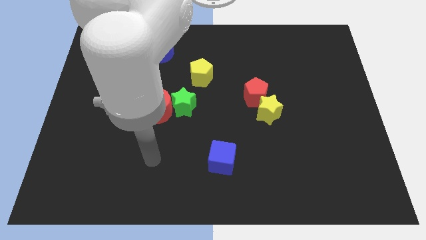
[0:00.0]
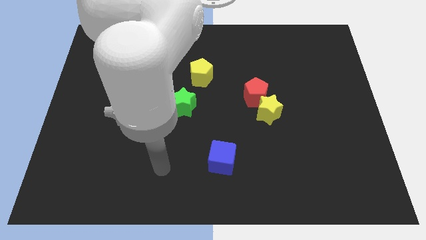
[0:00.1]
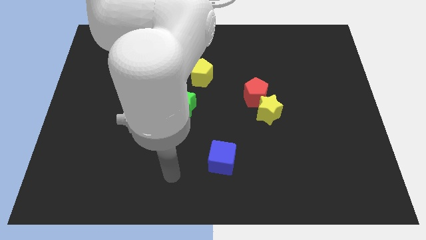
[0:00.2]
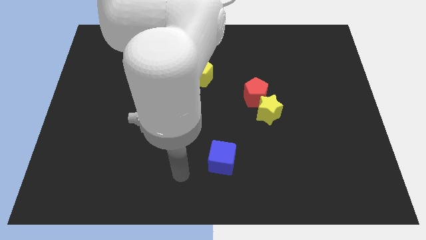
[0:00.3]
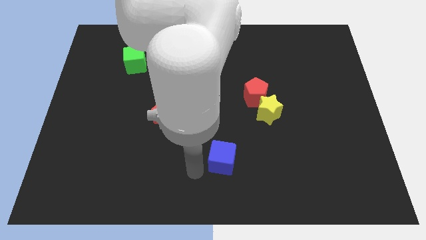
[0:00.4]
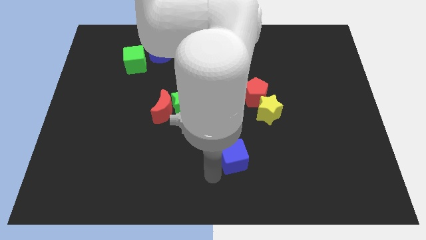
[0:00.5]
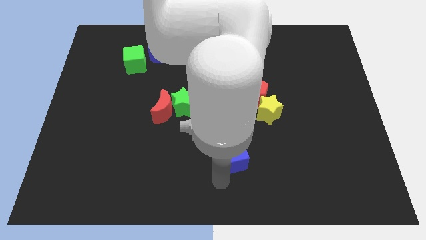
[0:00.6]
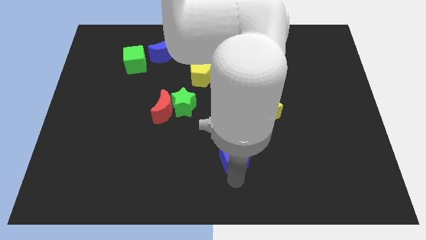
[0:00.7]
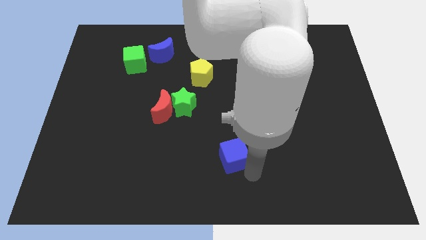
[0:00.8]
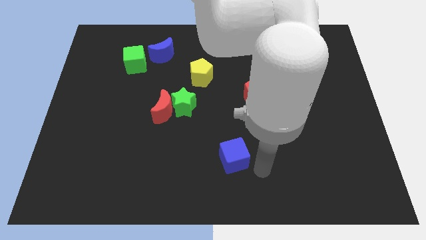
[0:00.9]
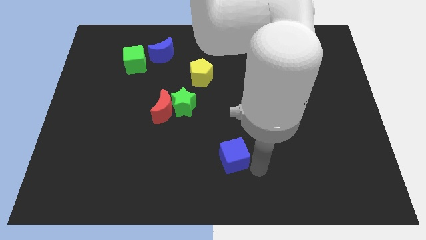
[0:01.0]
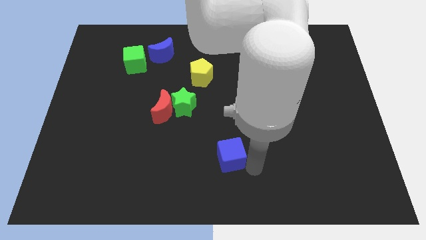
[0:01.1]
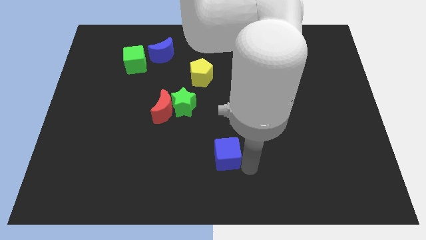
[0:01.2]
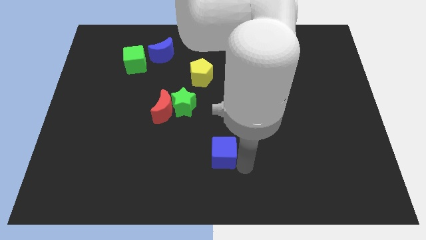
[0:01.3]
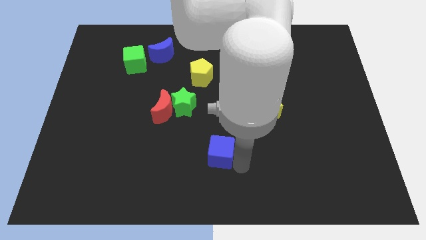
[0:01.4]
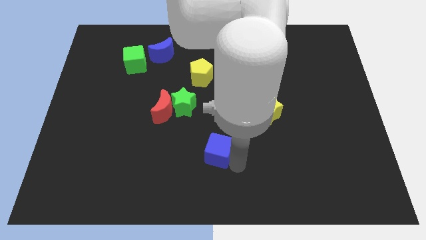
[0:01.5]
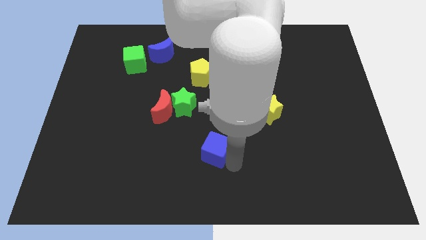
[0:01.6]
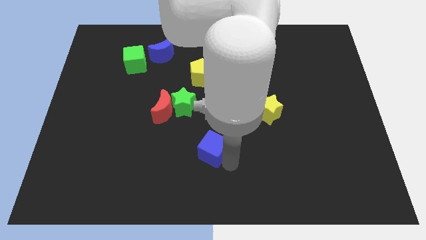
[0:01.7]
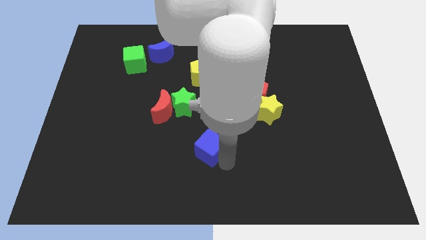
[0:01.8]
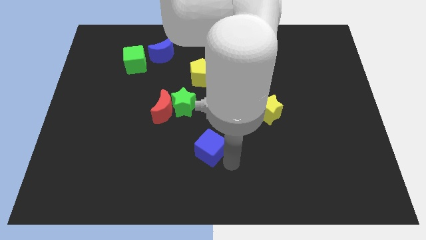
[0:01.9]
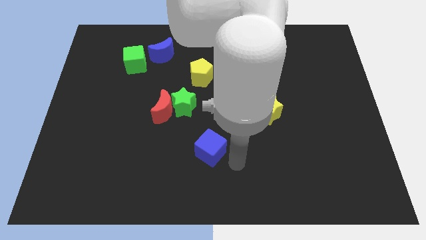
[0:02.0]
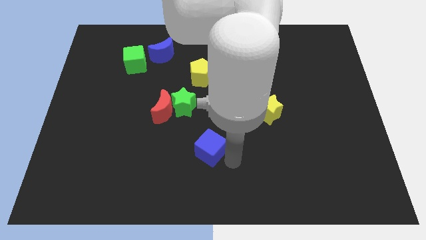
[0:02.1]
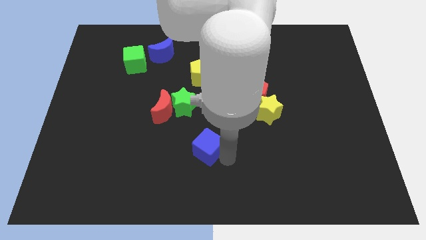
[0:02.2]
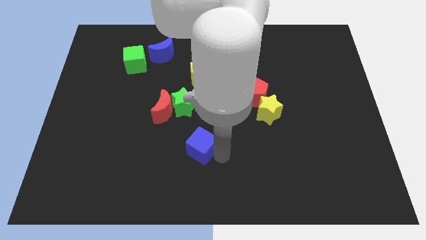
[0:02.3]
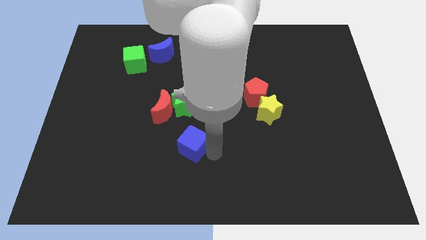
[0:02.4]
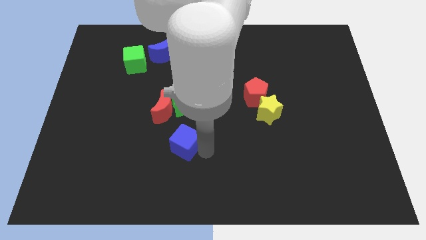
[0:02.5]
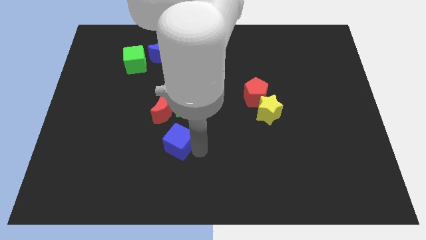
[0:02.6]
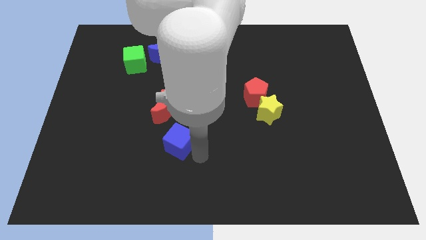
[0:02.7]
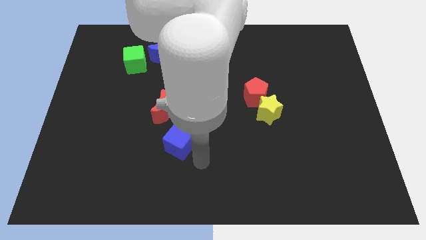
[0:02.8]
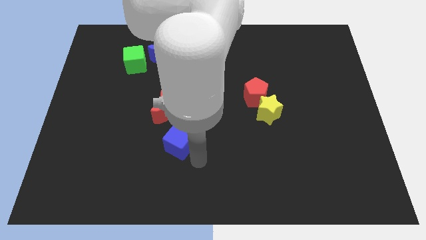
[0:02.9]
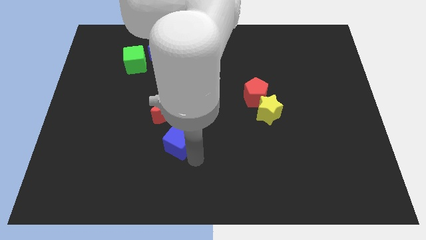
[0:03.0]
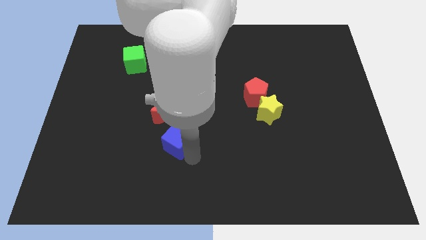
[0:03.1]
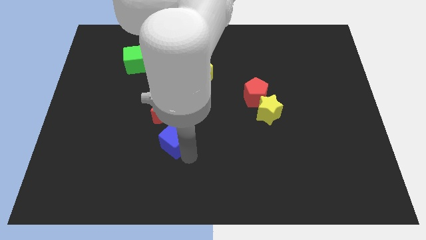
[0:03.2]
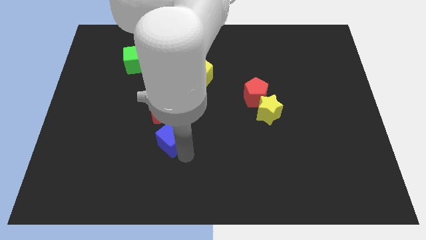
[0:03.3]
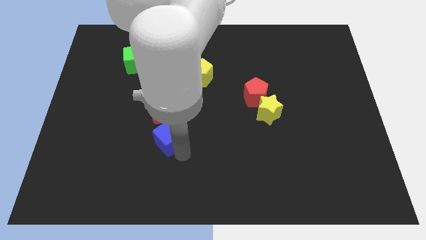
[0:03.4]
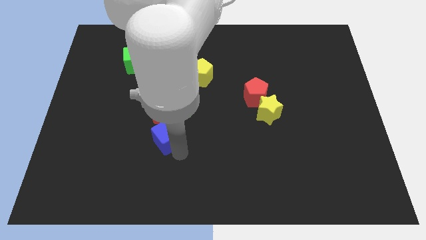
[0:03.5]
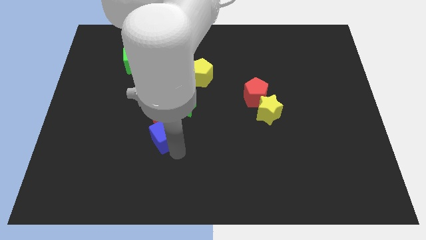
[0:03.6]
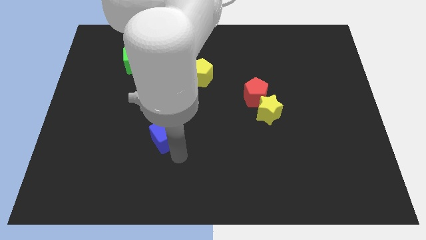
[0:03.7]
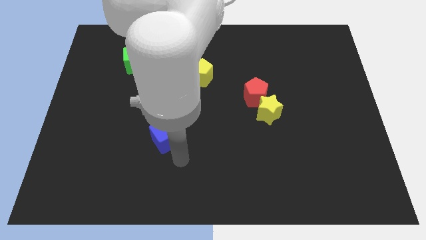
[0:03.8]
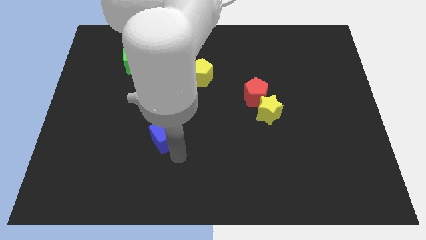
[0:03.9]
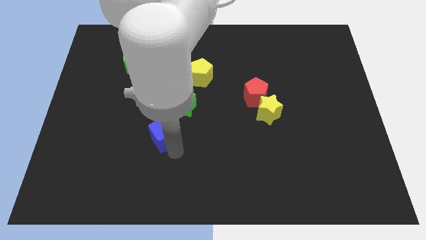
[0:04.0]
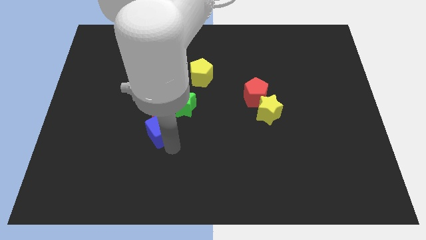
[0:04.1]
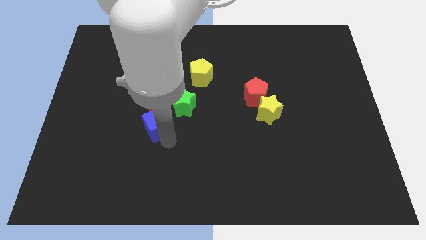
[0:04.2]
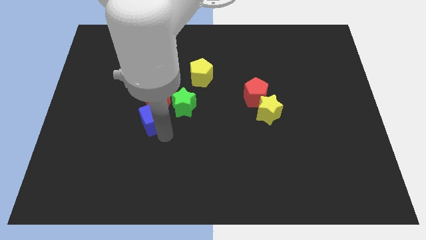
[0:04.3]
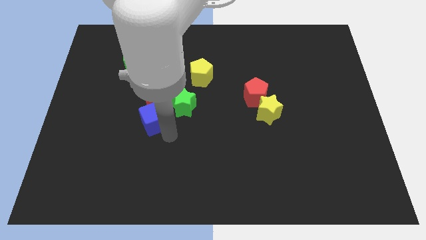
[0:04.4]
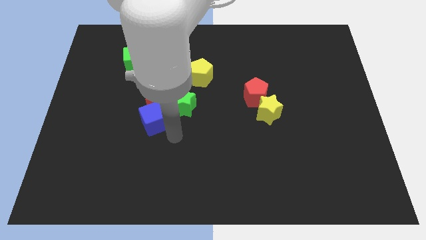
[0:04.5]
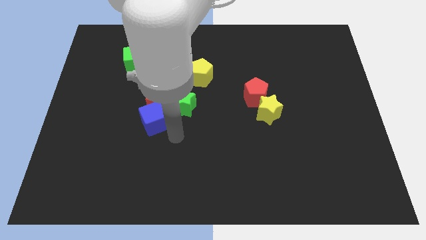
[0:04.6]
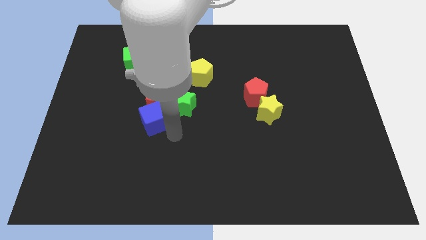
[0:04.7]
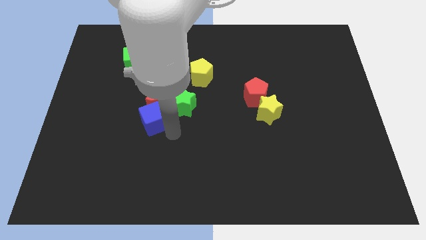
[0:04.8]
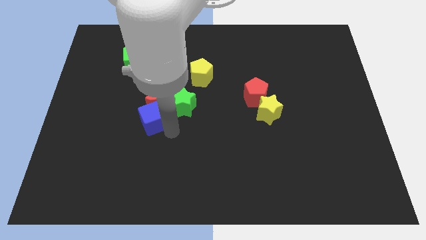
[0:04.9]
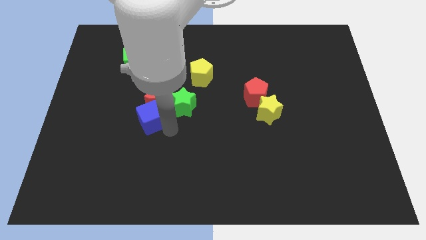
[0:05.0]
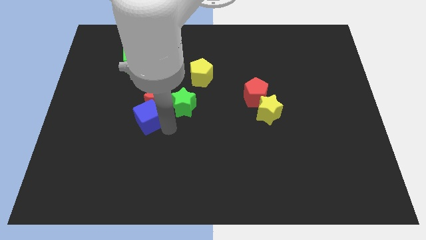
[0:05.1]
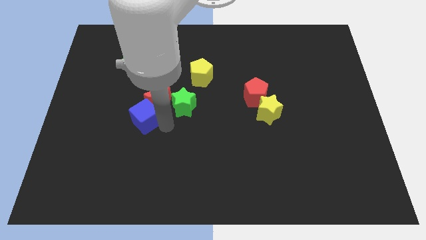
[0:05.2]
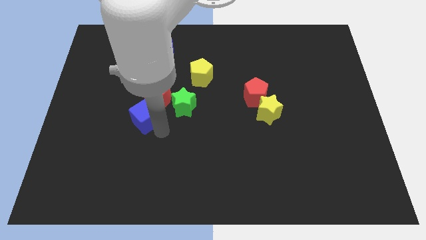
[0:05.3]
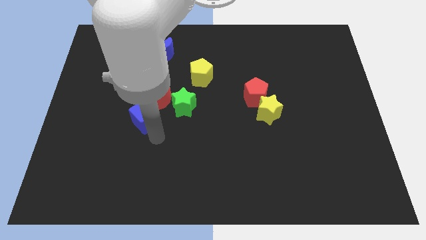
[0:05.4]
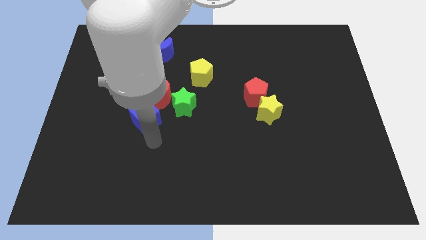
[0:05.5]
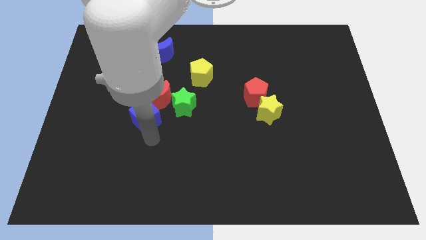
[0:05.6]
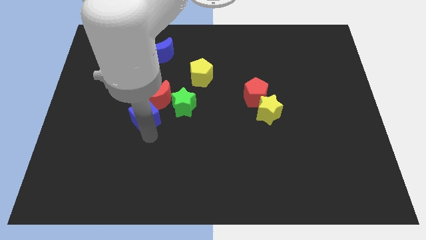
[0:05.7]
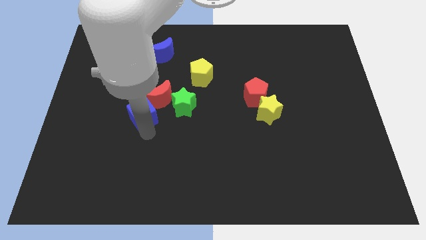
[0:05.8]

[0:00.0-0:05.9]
move the blue cube up and left diagonally

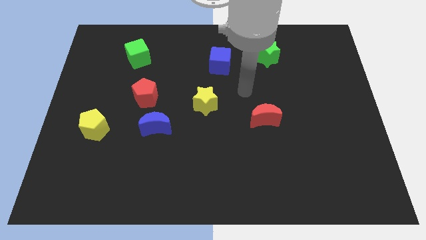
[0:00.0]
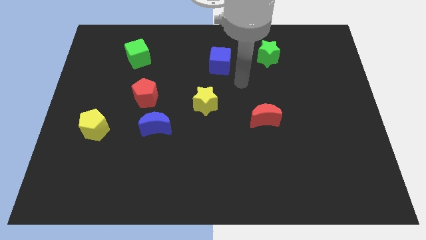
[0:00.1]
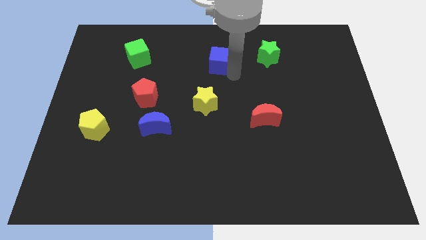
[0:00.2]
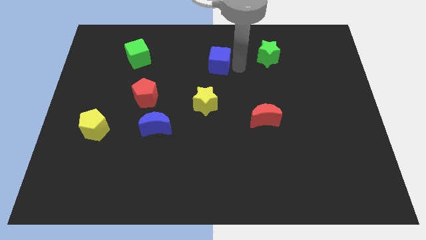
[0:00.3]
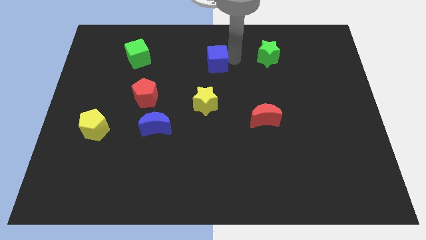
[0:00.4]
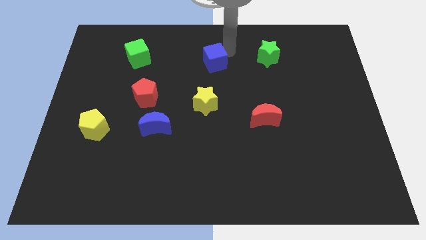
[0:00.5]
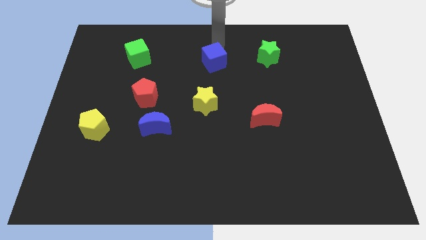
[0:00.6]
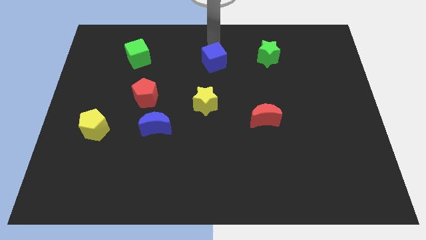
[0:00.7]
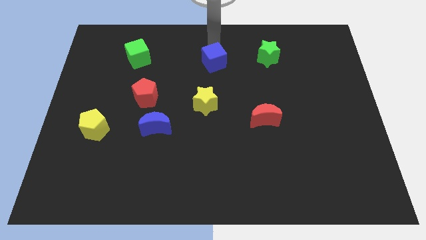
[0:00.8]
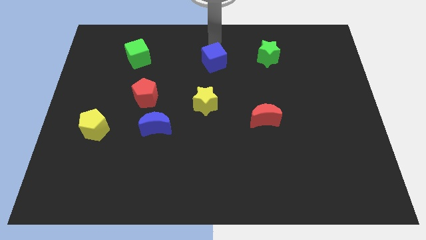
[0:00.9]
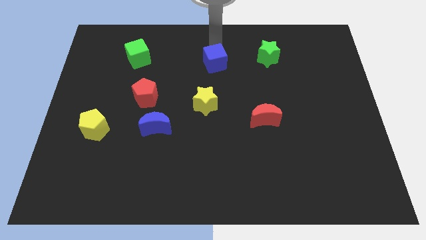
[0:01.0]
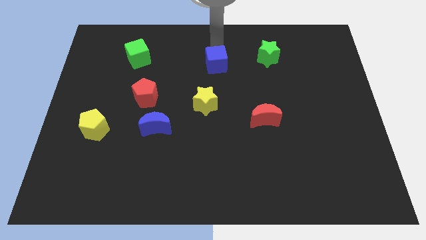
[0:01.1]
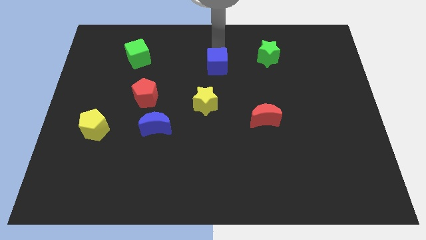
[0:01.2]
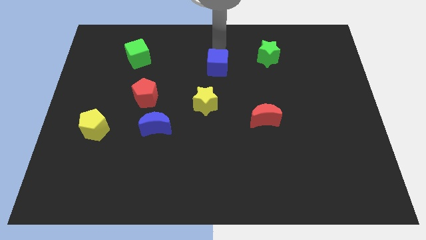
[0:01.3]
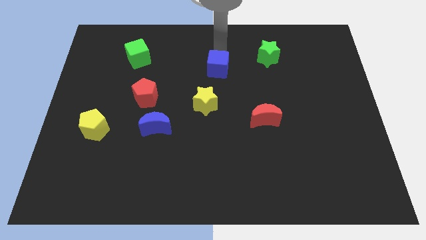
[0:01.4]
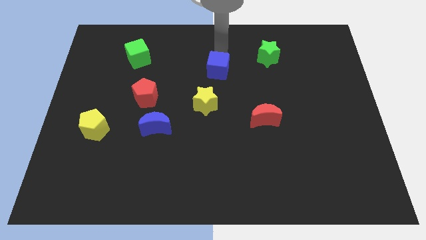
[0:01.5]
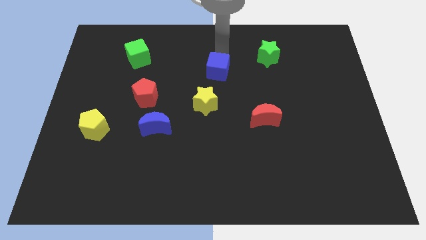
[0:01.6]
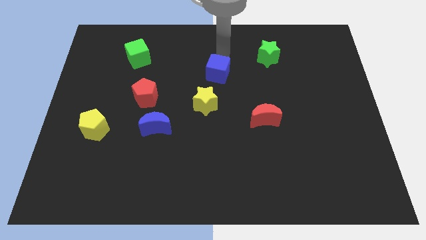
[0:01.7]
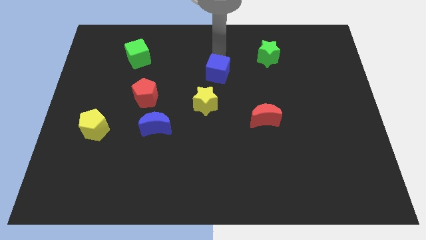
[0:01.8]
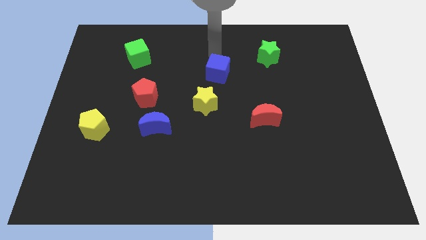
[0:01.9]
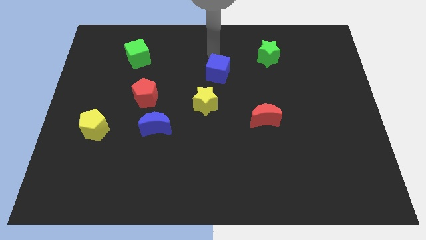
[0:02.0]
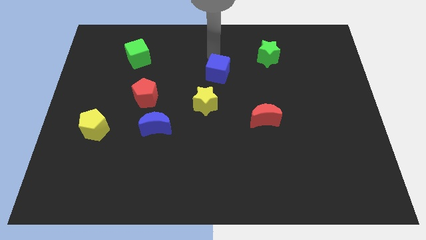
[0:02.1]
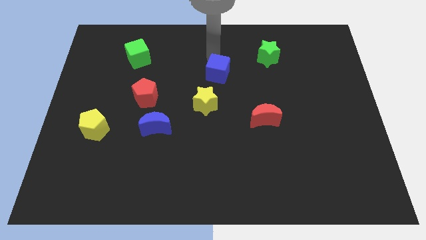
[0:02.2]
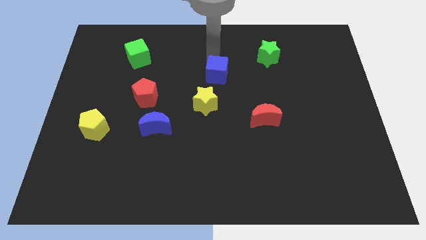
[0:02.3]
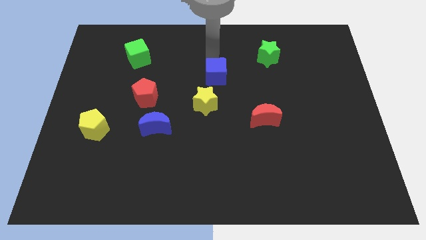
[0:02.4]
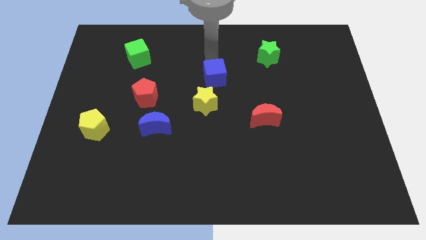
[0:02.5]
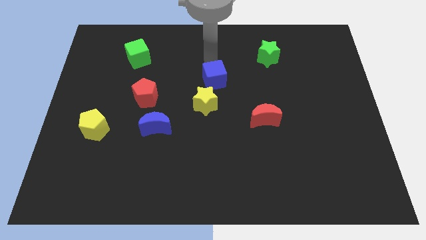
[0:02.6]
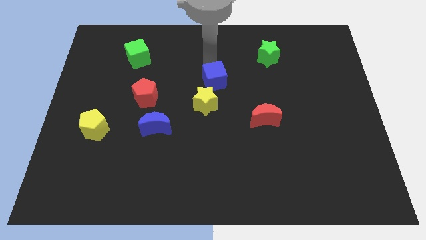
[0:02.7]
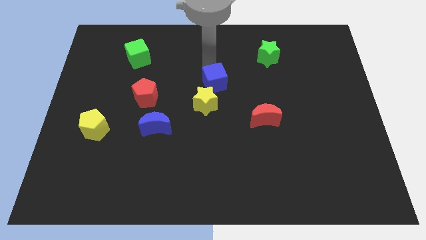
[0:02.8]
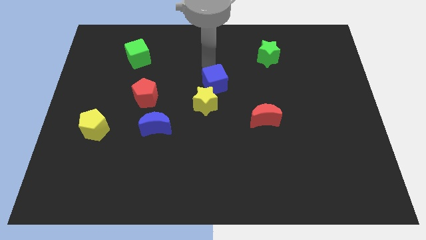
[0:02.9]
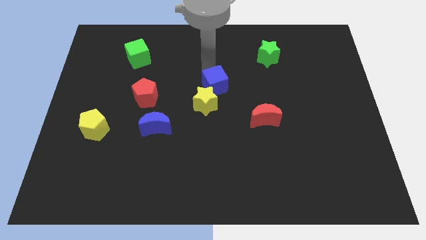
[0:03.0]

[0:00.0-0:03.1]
slightly push the blue cube downwards
